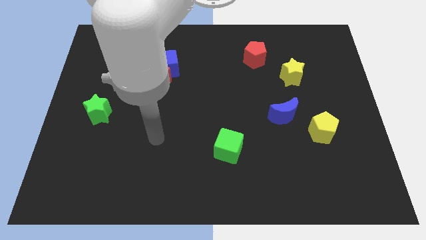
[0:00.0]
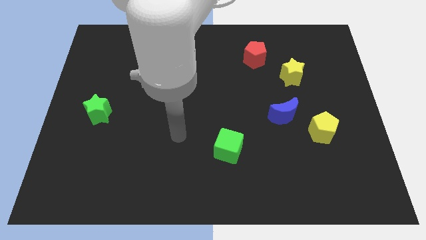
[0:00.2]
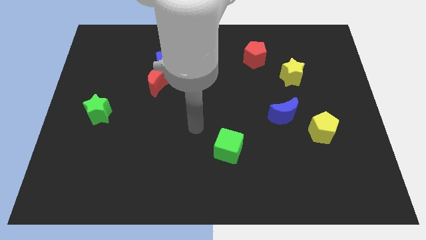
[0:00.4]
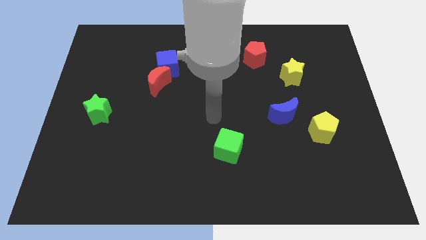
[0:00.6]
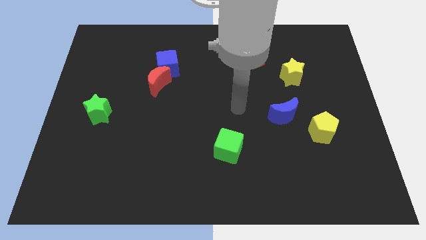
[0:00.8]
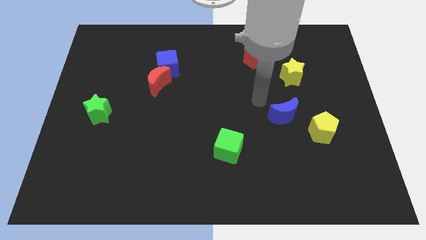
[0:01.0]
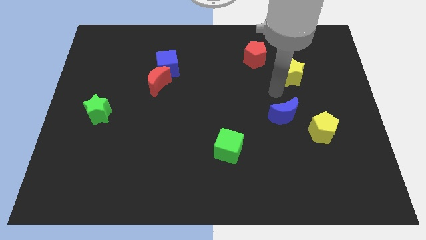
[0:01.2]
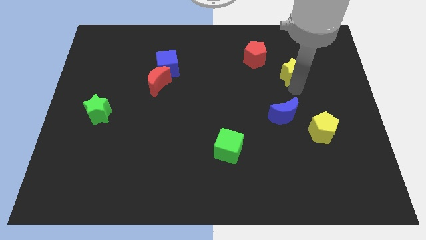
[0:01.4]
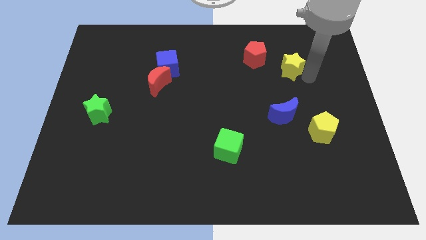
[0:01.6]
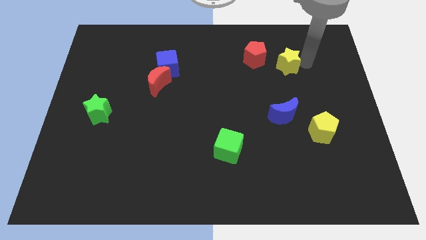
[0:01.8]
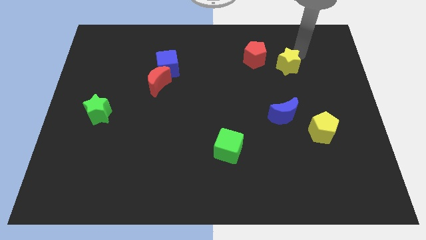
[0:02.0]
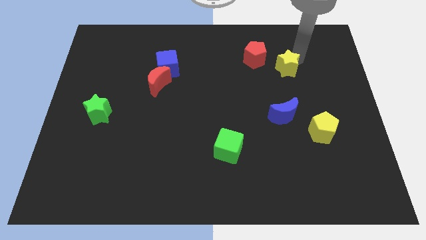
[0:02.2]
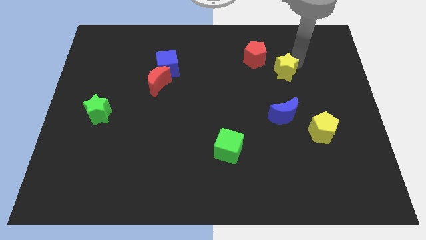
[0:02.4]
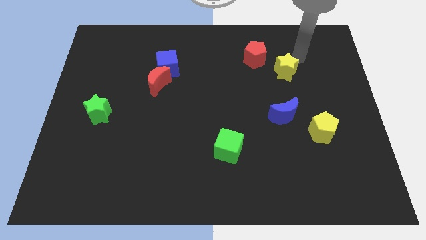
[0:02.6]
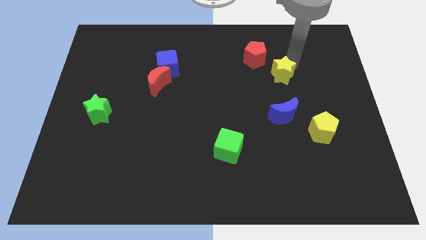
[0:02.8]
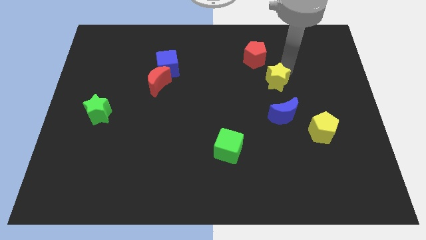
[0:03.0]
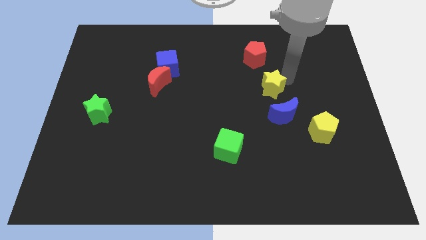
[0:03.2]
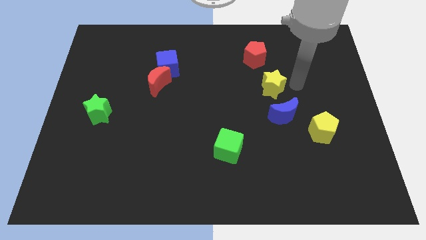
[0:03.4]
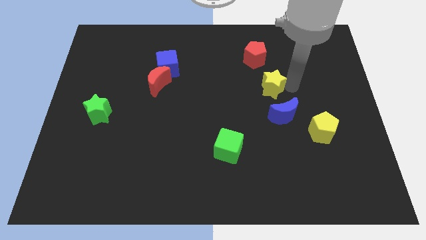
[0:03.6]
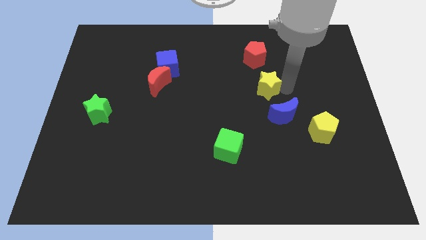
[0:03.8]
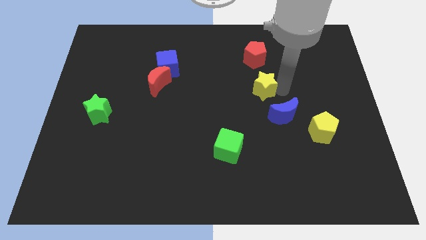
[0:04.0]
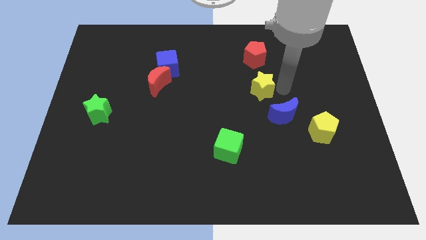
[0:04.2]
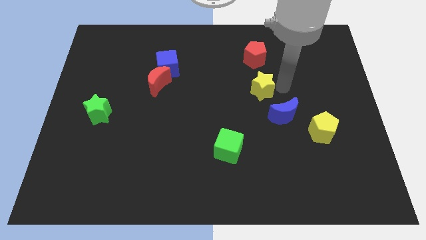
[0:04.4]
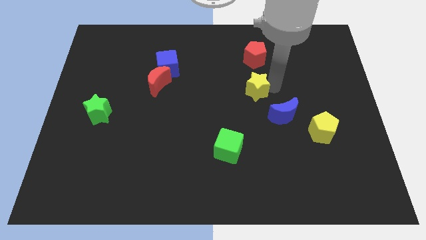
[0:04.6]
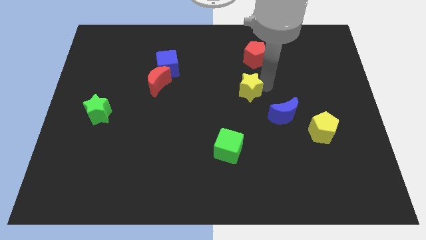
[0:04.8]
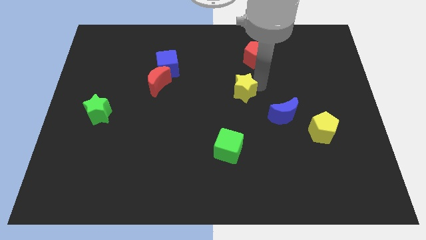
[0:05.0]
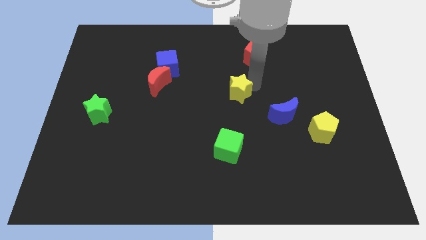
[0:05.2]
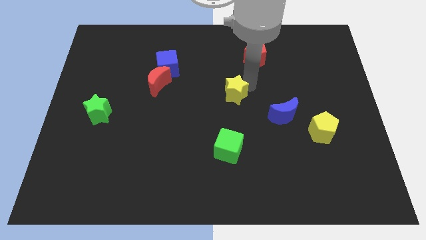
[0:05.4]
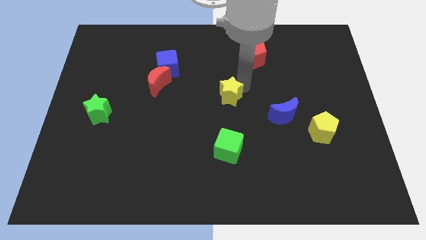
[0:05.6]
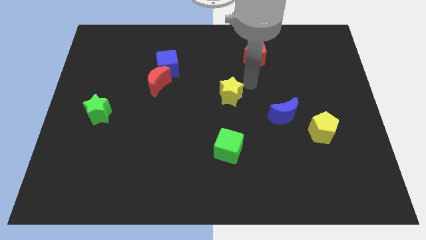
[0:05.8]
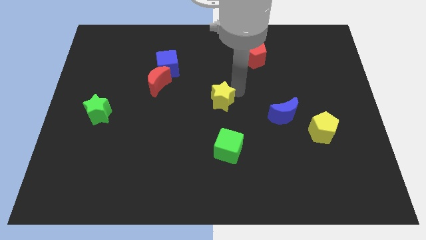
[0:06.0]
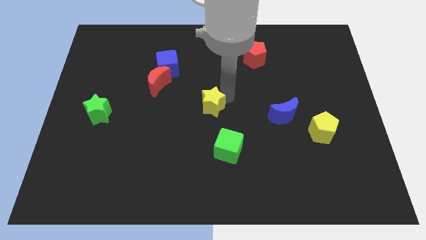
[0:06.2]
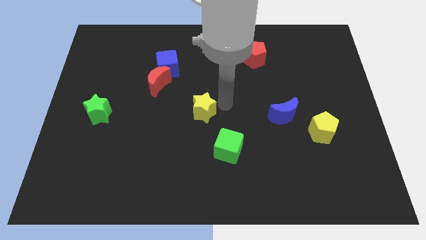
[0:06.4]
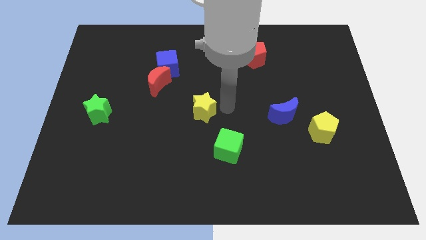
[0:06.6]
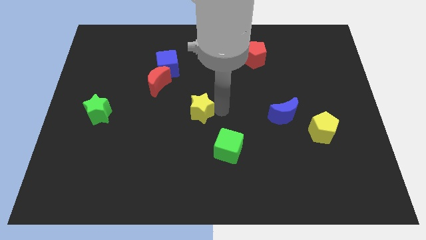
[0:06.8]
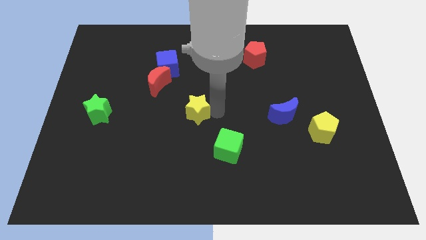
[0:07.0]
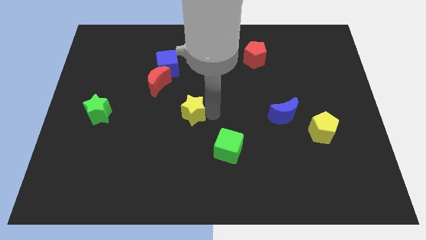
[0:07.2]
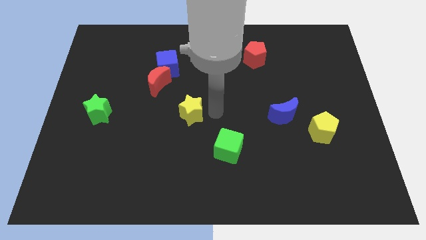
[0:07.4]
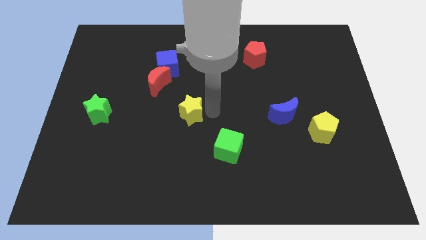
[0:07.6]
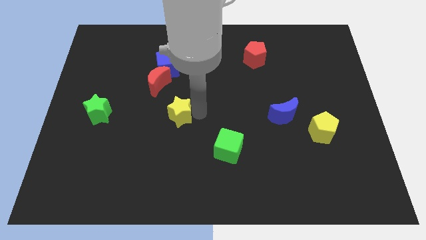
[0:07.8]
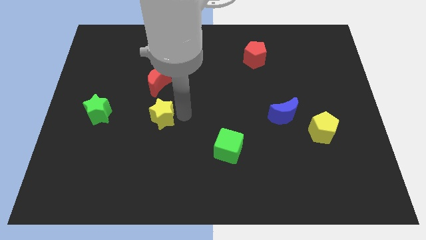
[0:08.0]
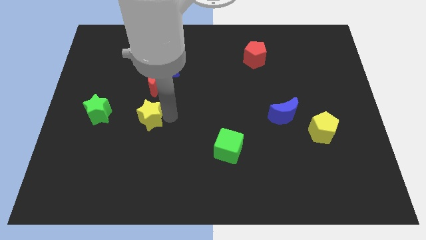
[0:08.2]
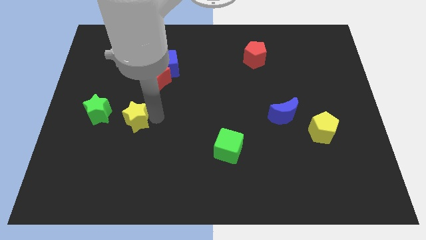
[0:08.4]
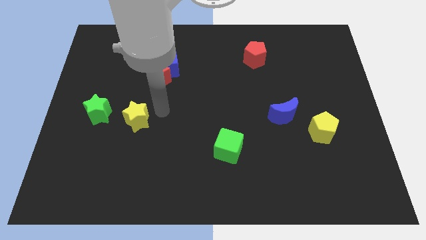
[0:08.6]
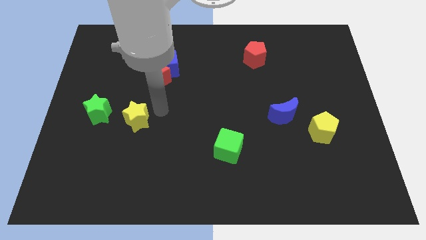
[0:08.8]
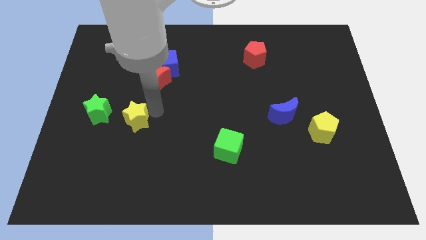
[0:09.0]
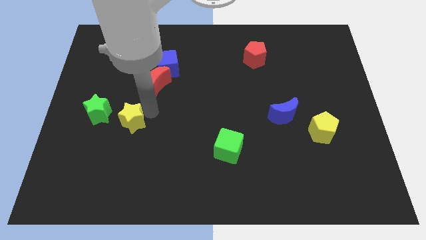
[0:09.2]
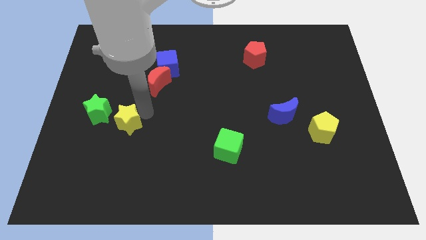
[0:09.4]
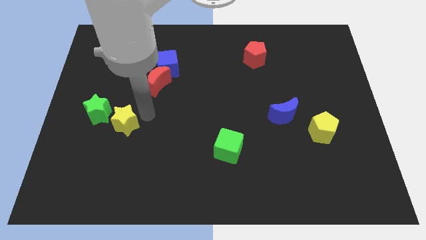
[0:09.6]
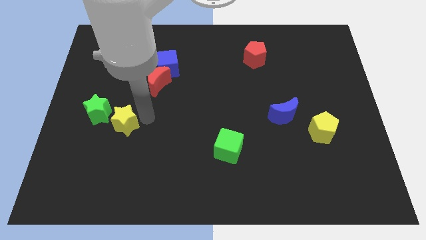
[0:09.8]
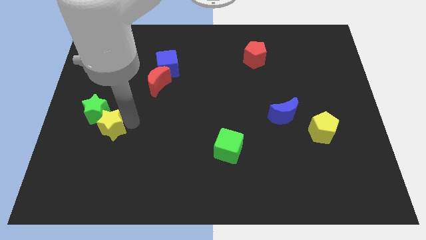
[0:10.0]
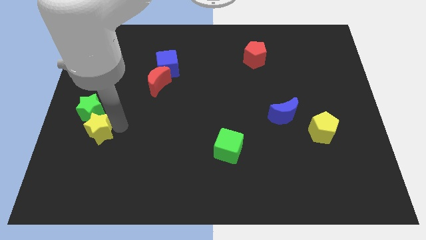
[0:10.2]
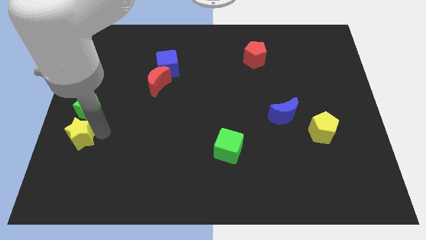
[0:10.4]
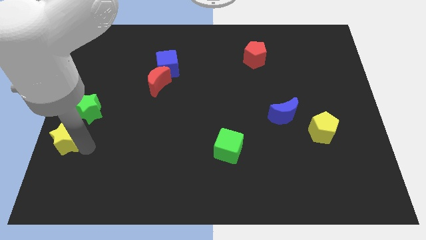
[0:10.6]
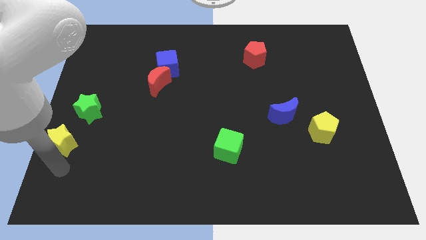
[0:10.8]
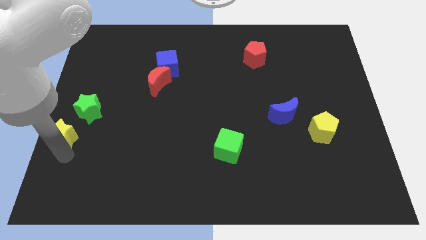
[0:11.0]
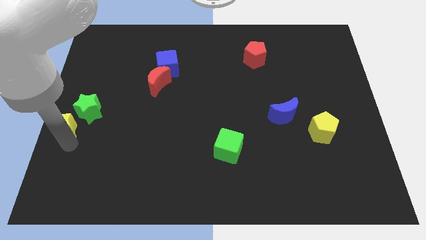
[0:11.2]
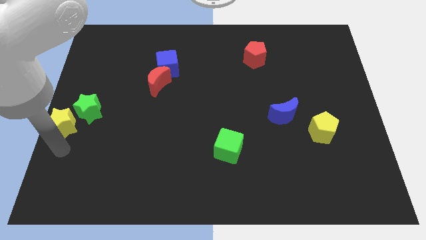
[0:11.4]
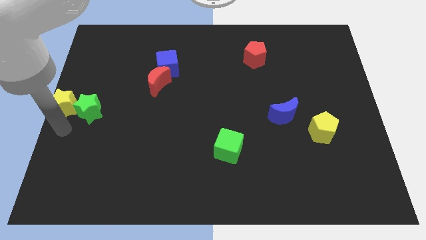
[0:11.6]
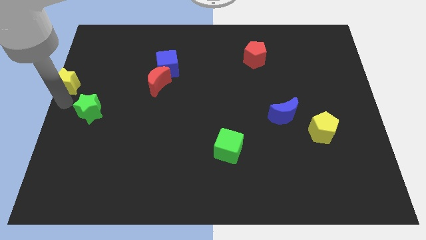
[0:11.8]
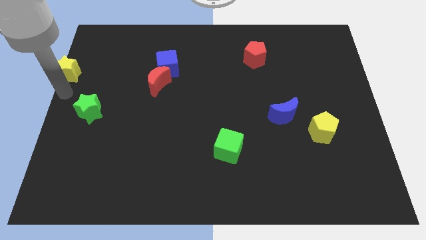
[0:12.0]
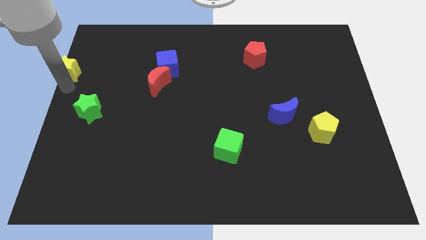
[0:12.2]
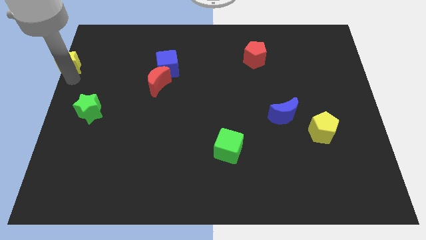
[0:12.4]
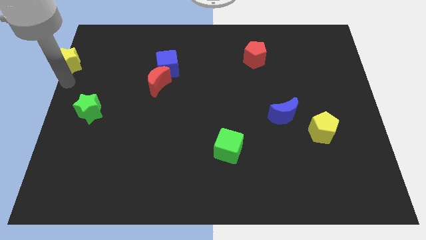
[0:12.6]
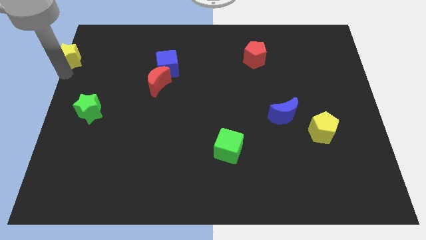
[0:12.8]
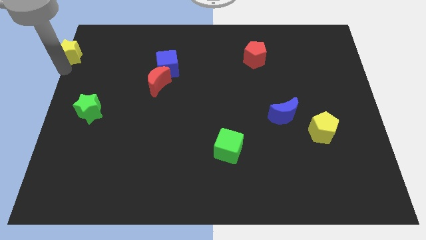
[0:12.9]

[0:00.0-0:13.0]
move the yellow star to the top left of the board
